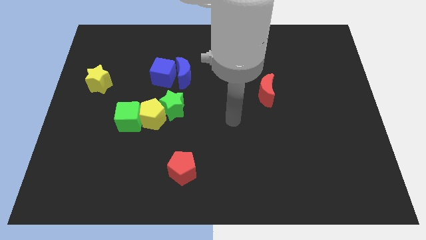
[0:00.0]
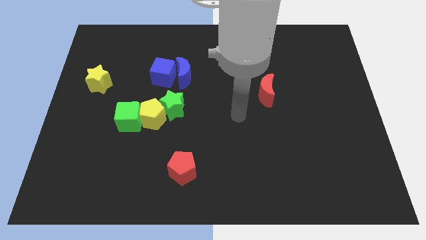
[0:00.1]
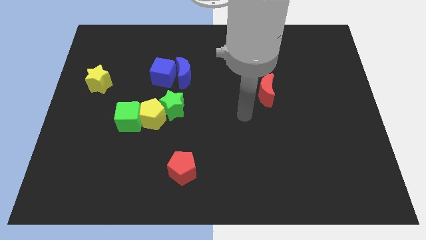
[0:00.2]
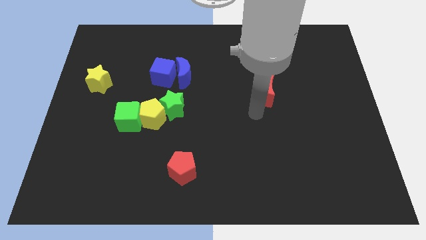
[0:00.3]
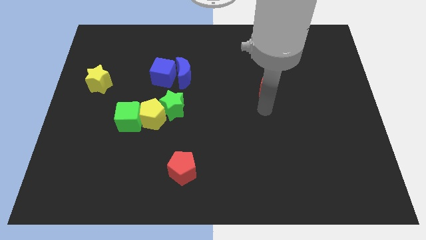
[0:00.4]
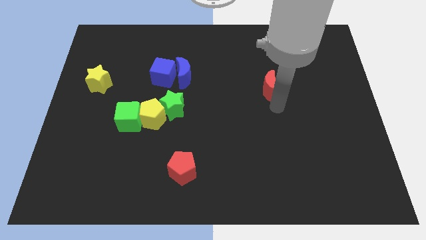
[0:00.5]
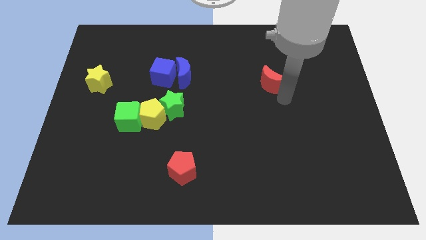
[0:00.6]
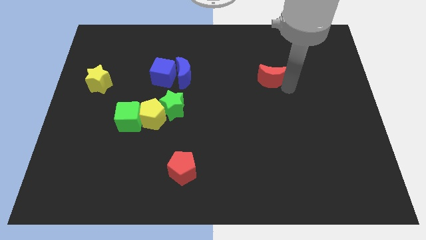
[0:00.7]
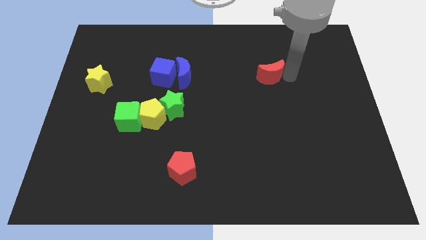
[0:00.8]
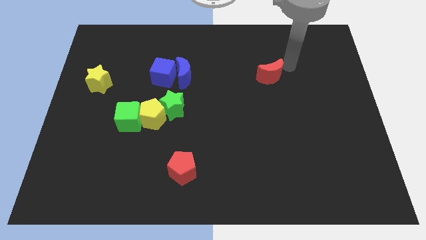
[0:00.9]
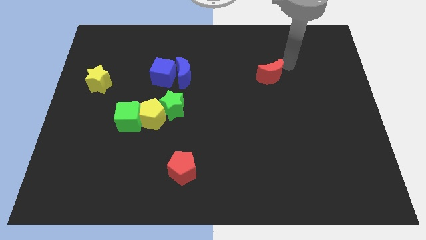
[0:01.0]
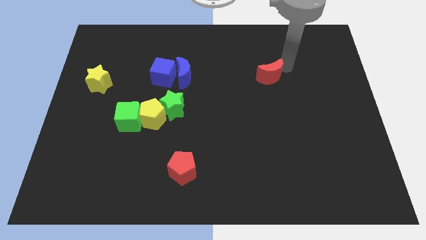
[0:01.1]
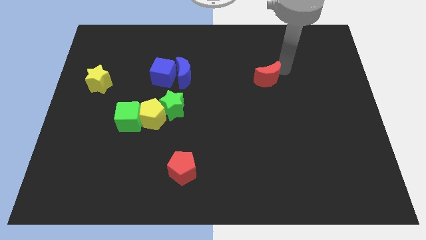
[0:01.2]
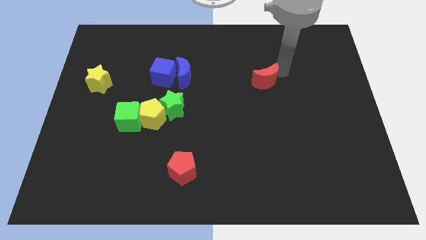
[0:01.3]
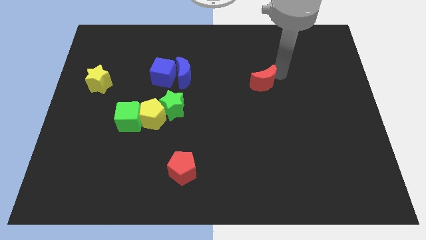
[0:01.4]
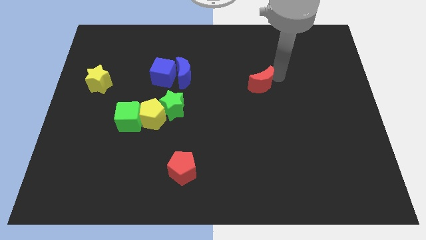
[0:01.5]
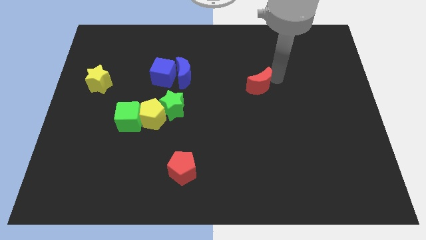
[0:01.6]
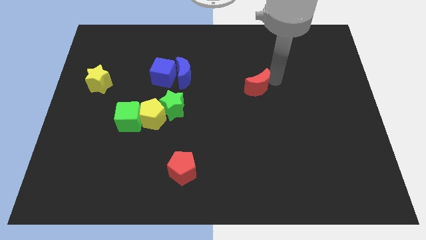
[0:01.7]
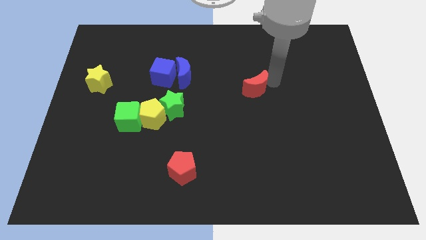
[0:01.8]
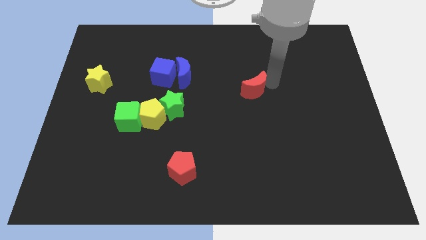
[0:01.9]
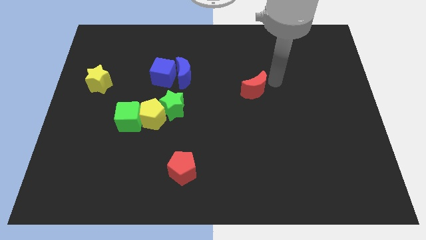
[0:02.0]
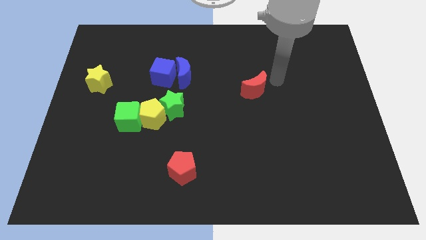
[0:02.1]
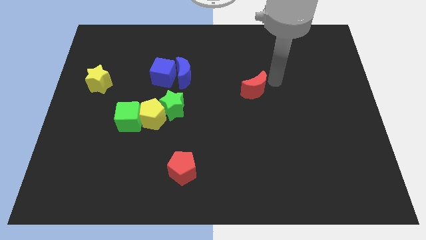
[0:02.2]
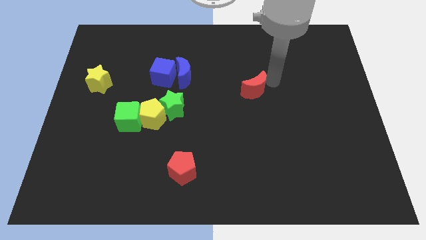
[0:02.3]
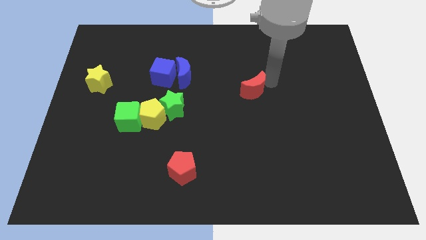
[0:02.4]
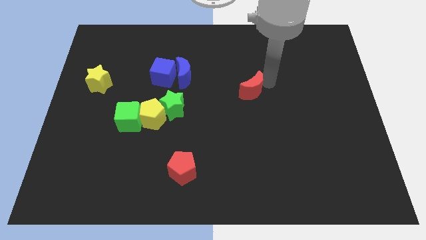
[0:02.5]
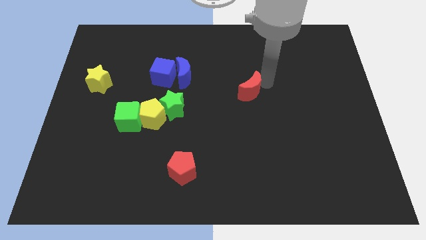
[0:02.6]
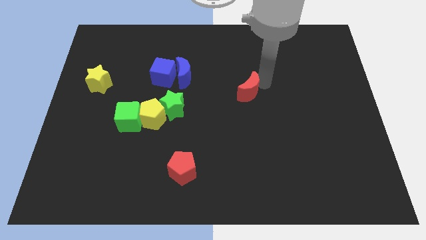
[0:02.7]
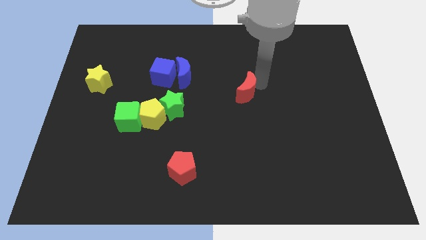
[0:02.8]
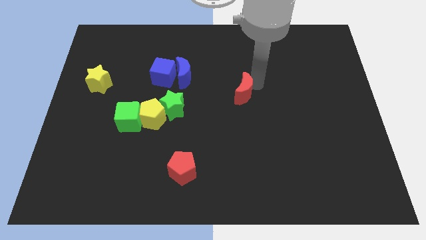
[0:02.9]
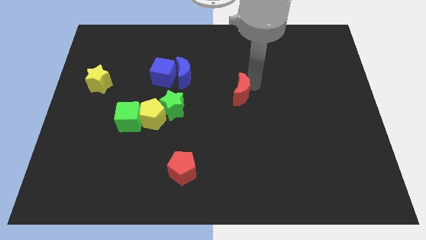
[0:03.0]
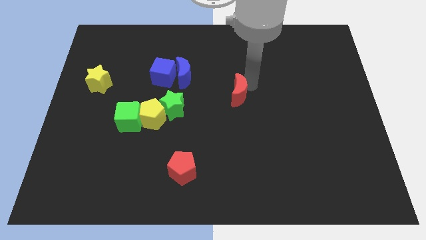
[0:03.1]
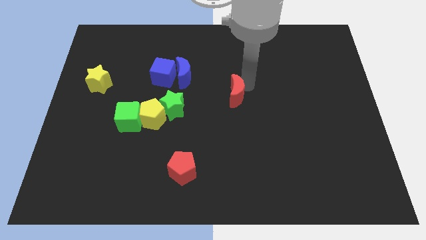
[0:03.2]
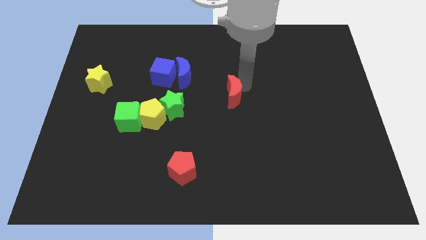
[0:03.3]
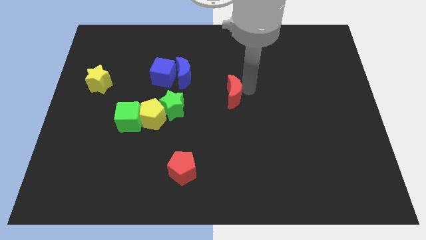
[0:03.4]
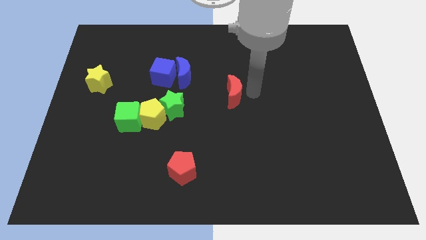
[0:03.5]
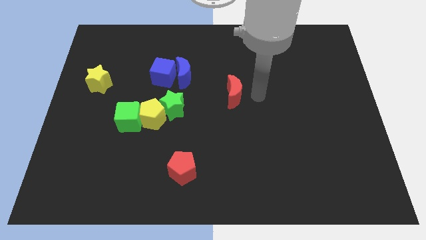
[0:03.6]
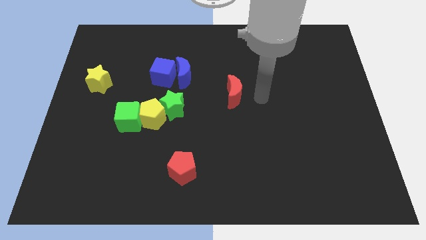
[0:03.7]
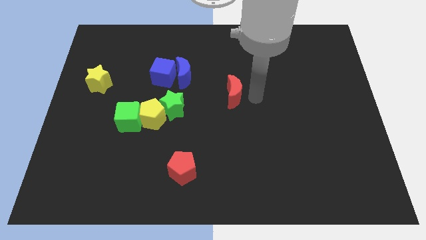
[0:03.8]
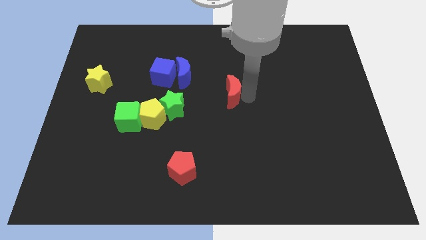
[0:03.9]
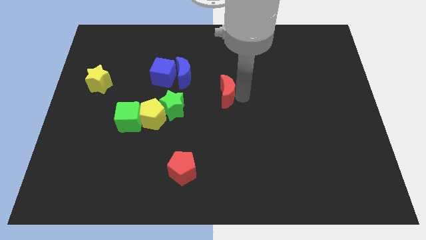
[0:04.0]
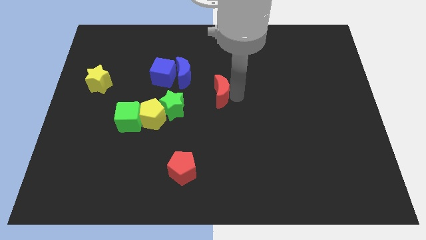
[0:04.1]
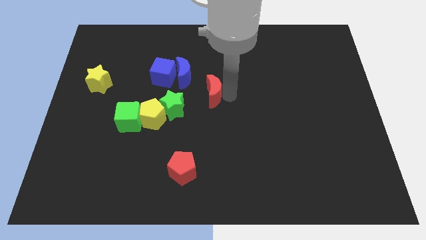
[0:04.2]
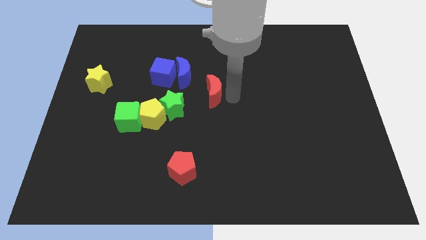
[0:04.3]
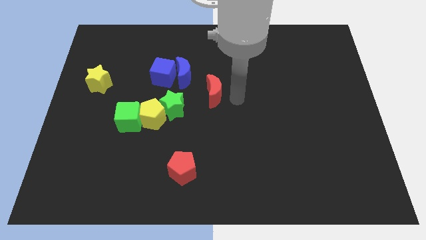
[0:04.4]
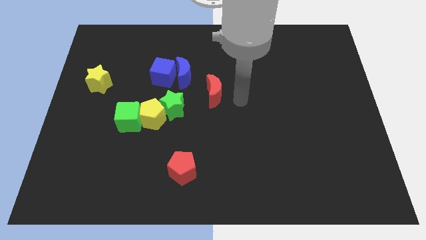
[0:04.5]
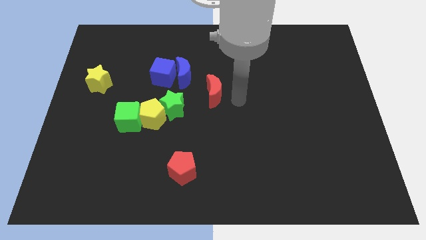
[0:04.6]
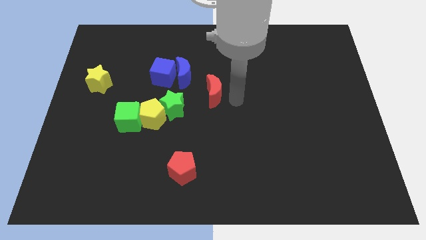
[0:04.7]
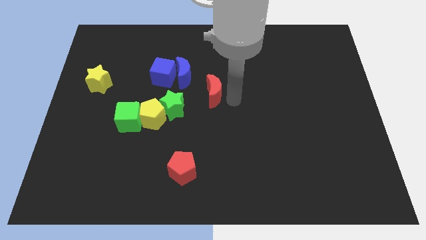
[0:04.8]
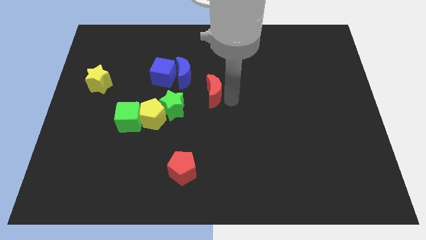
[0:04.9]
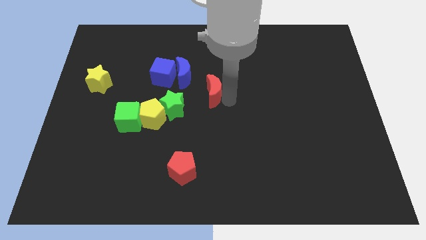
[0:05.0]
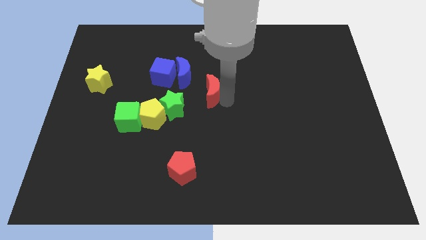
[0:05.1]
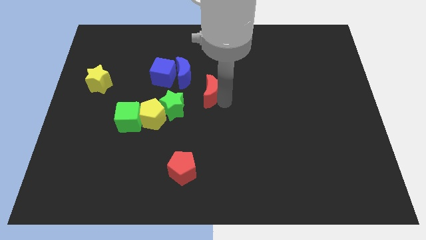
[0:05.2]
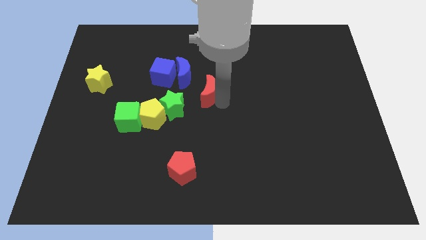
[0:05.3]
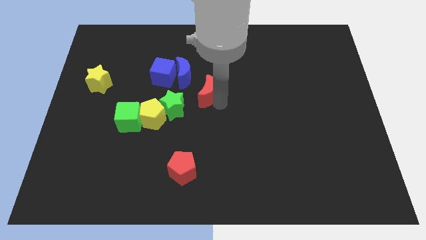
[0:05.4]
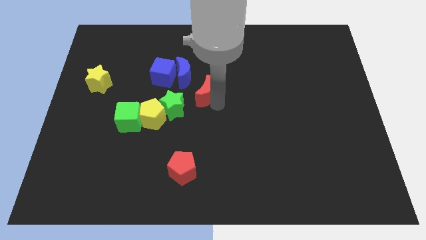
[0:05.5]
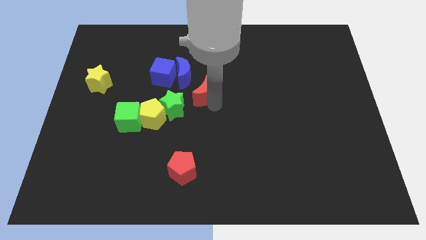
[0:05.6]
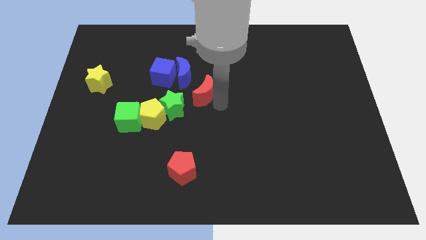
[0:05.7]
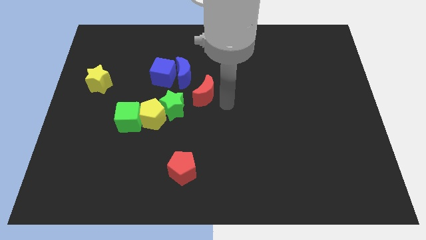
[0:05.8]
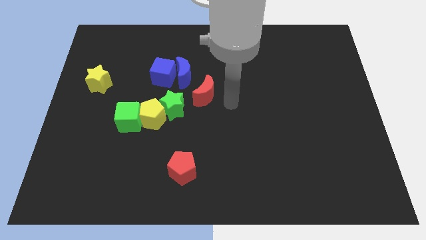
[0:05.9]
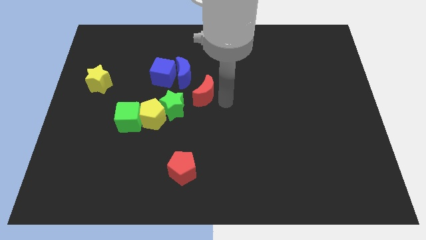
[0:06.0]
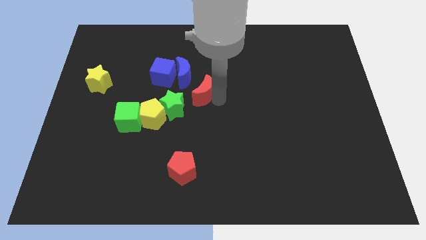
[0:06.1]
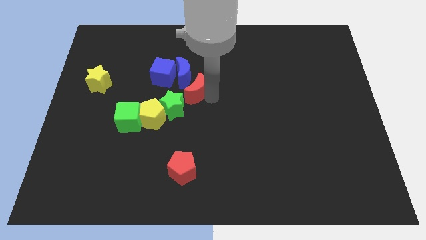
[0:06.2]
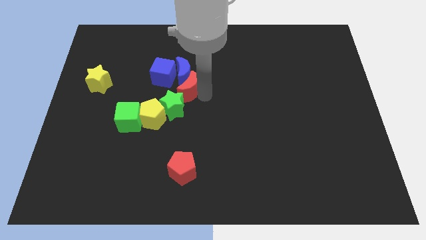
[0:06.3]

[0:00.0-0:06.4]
put the red moon towards the blue moon

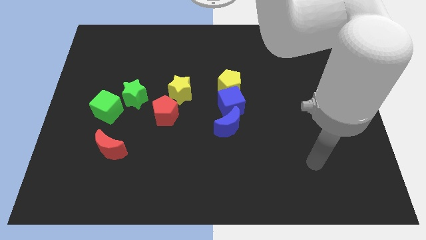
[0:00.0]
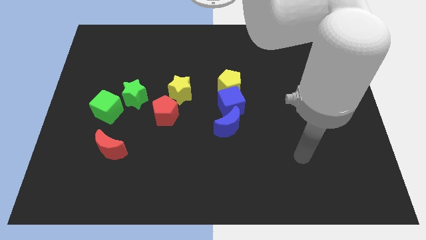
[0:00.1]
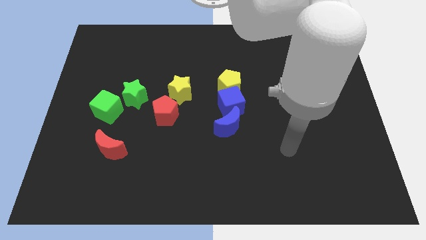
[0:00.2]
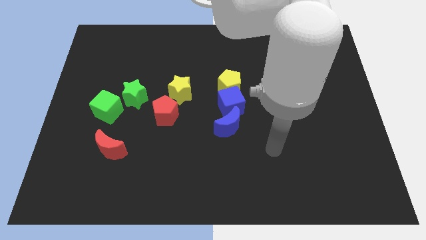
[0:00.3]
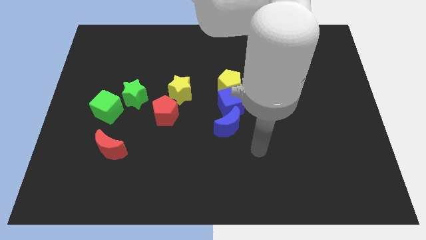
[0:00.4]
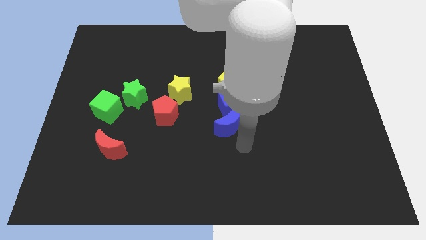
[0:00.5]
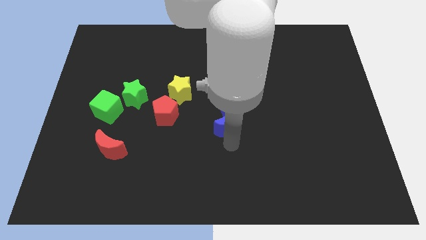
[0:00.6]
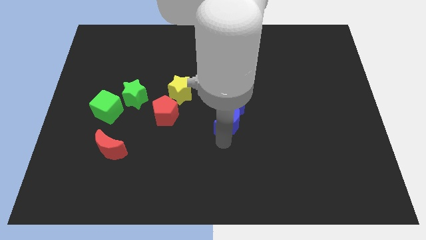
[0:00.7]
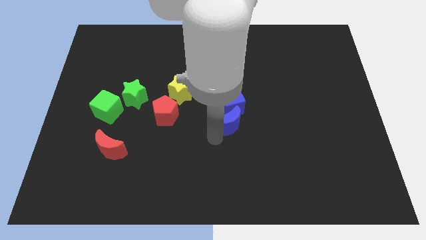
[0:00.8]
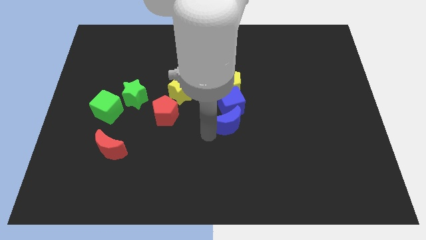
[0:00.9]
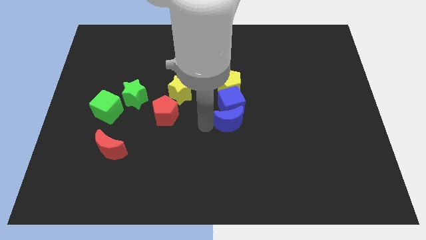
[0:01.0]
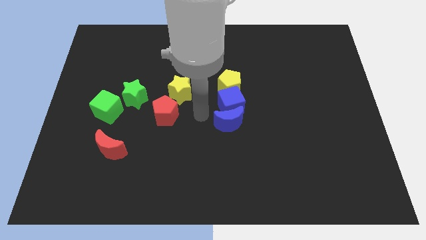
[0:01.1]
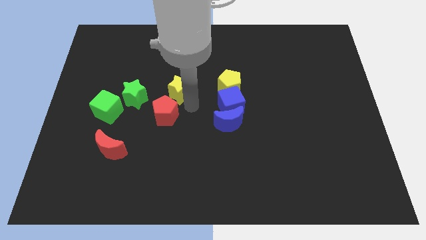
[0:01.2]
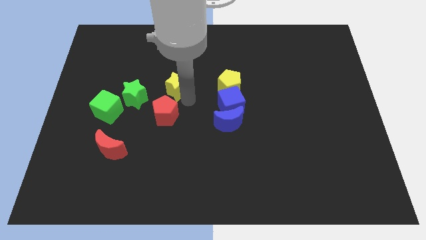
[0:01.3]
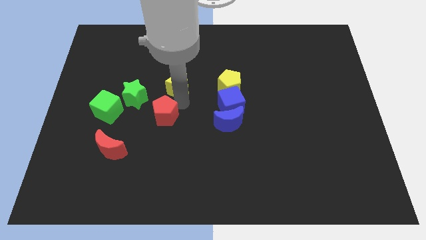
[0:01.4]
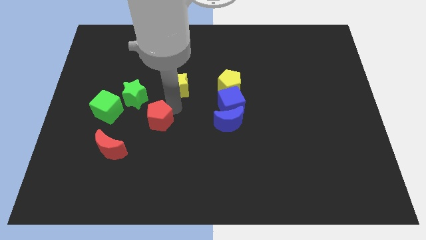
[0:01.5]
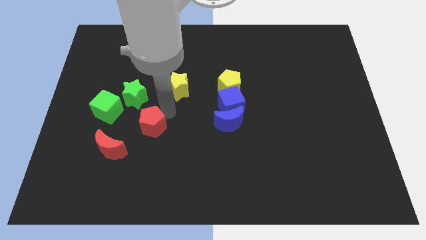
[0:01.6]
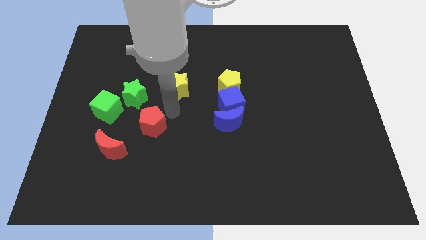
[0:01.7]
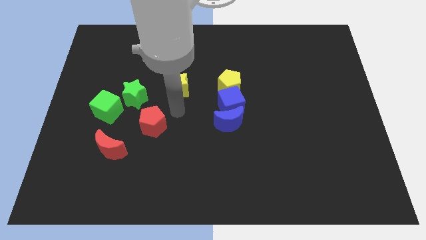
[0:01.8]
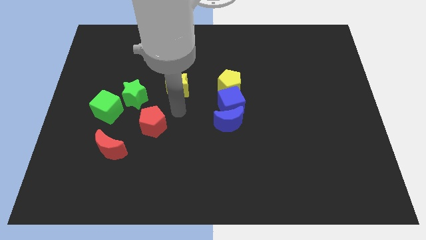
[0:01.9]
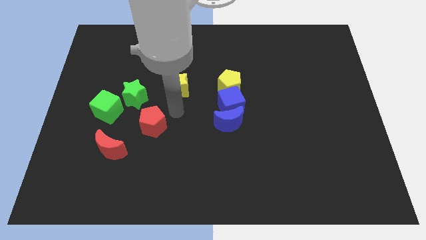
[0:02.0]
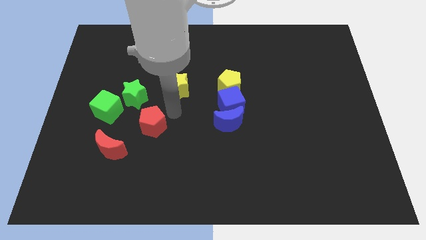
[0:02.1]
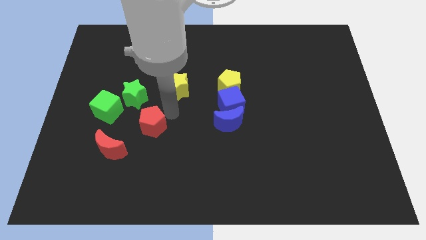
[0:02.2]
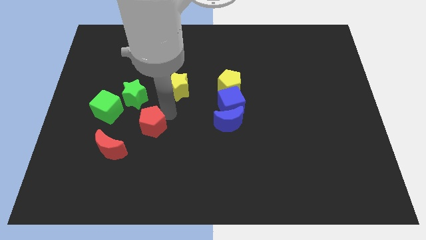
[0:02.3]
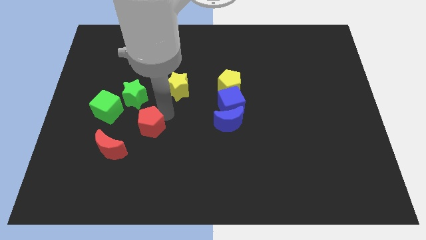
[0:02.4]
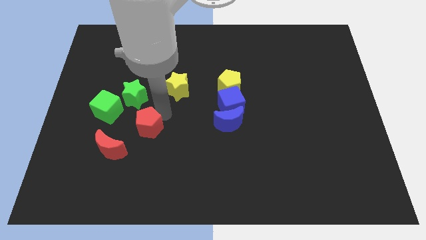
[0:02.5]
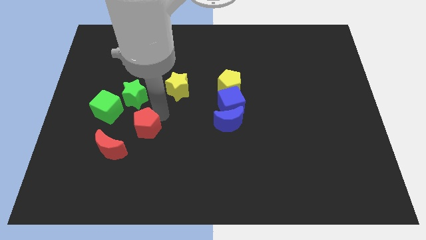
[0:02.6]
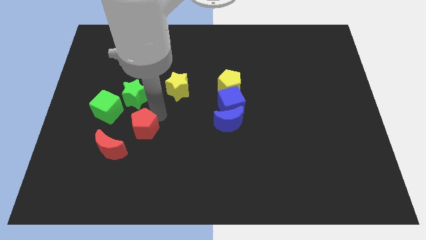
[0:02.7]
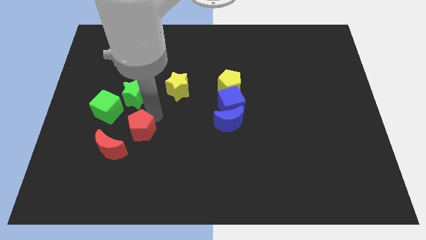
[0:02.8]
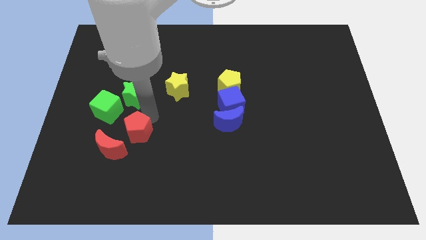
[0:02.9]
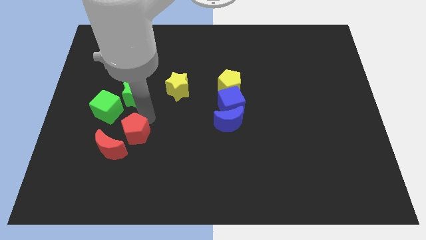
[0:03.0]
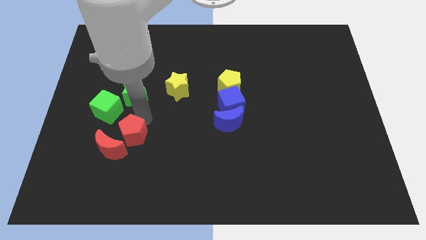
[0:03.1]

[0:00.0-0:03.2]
slide the red pentagon next to the red moon
